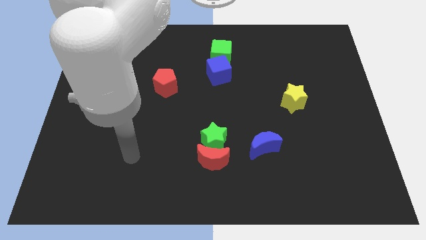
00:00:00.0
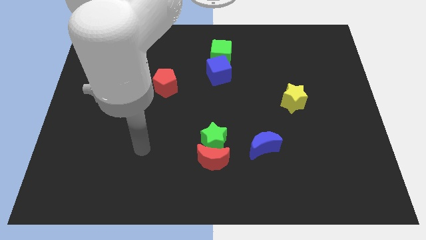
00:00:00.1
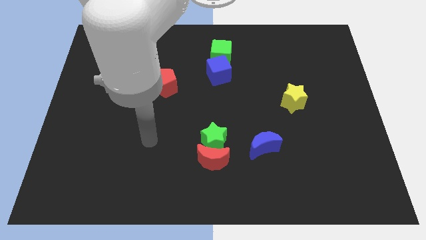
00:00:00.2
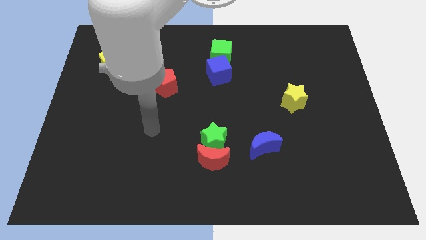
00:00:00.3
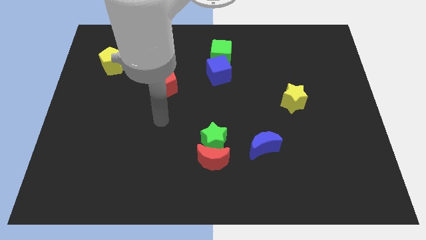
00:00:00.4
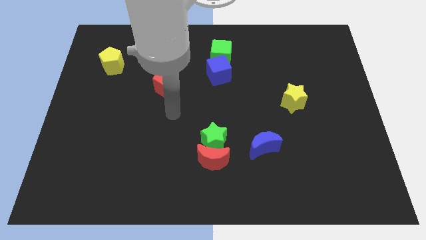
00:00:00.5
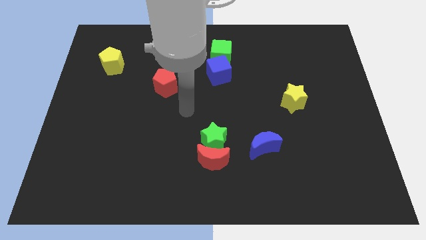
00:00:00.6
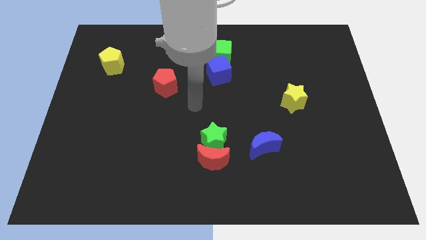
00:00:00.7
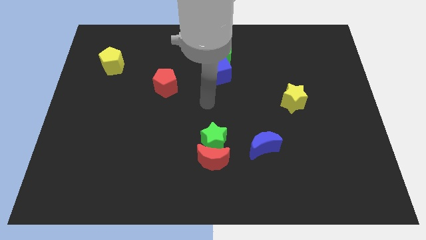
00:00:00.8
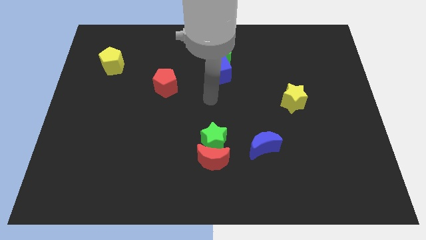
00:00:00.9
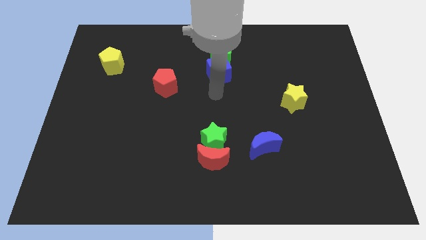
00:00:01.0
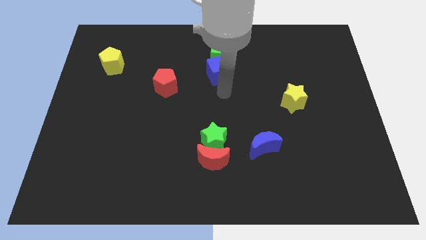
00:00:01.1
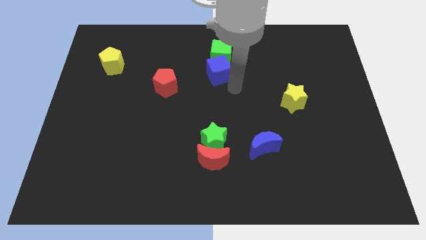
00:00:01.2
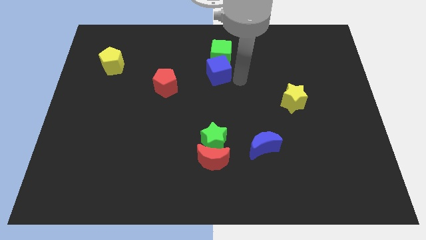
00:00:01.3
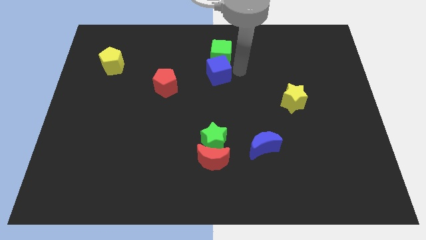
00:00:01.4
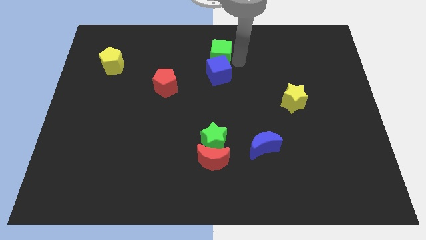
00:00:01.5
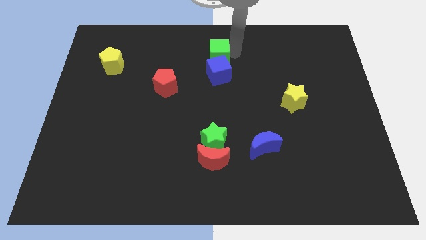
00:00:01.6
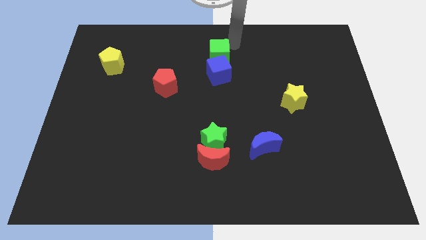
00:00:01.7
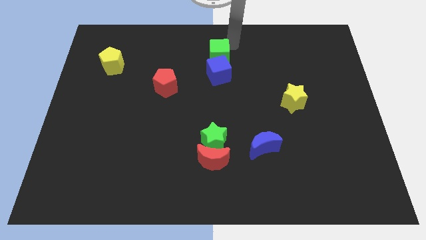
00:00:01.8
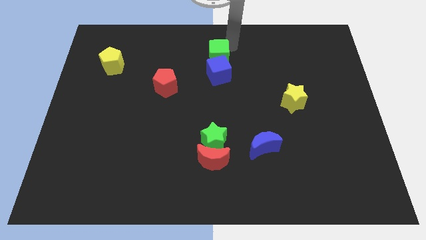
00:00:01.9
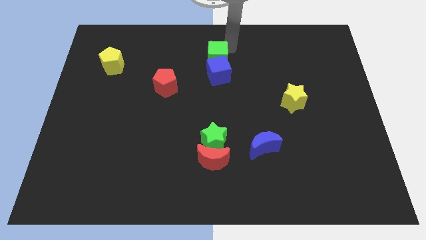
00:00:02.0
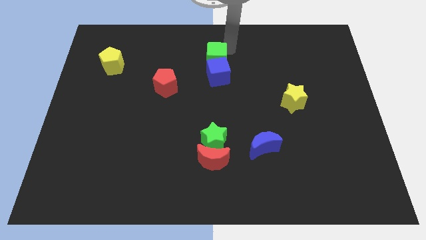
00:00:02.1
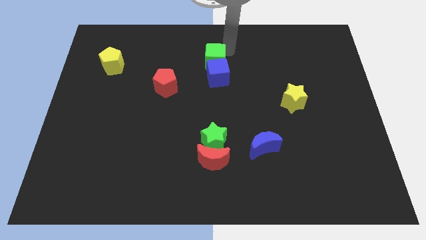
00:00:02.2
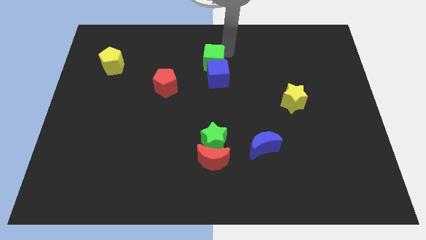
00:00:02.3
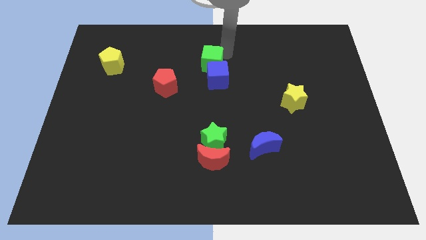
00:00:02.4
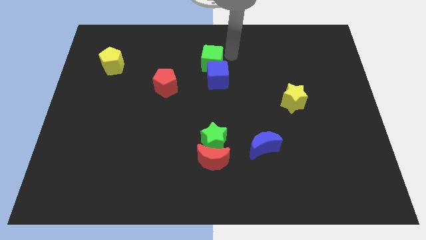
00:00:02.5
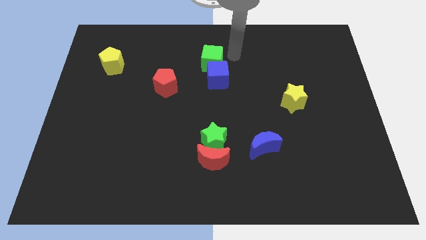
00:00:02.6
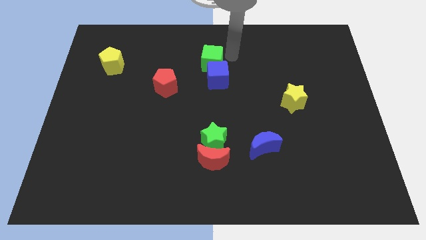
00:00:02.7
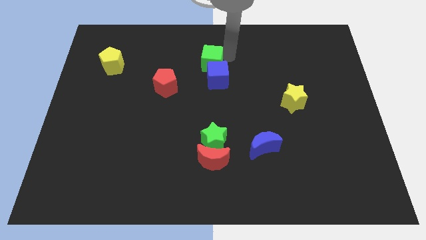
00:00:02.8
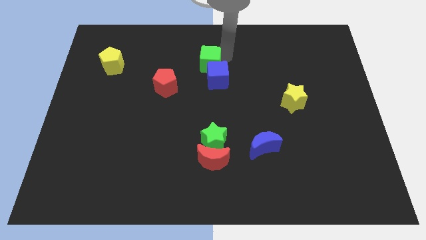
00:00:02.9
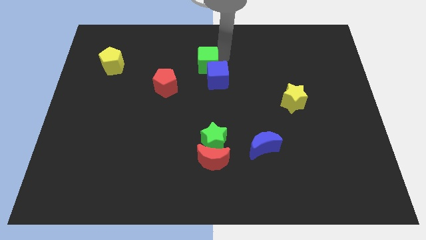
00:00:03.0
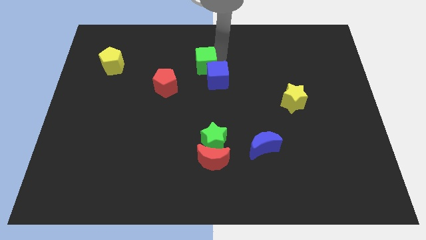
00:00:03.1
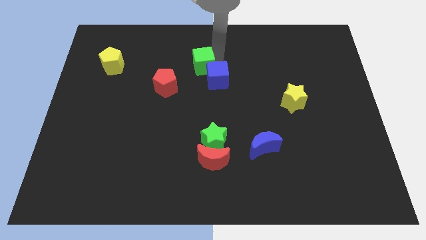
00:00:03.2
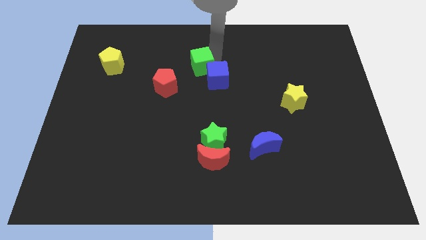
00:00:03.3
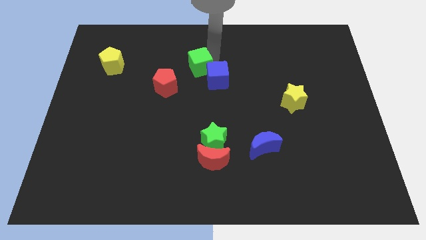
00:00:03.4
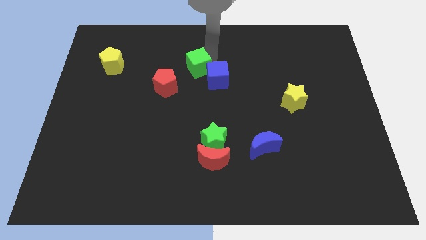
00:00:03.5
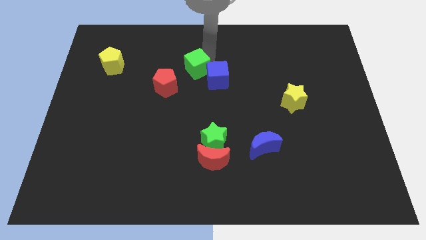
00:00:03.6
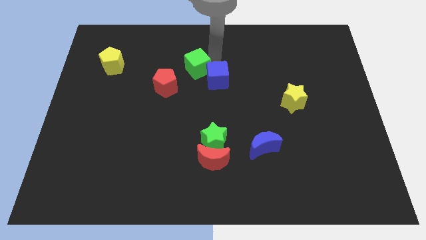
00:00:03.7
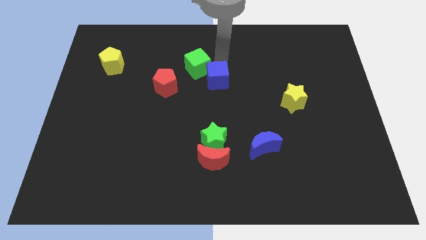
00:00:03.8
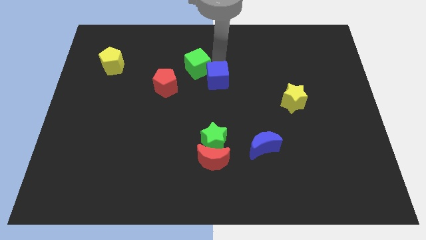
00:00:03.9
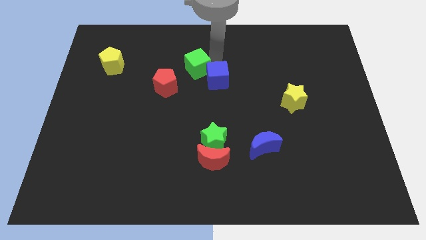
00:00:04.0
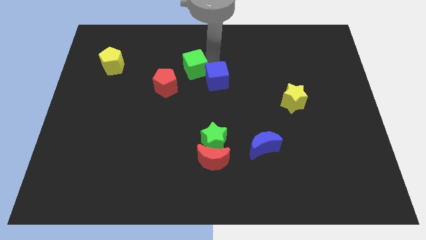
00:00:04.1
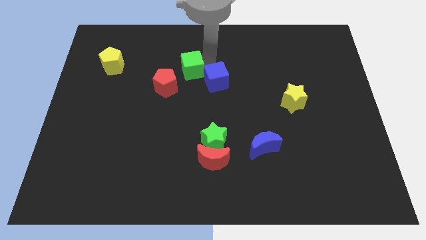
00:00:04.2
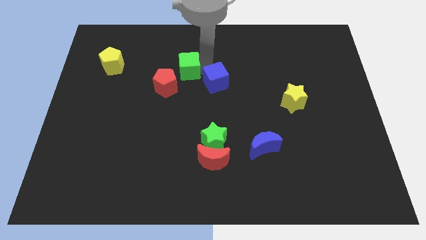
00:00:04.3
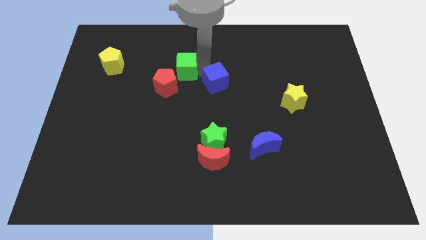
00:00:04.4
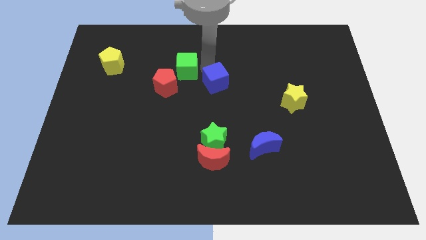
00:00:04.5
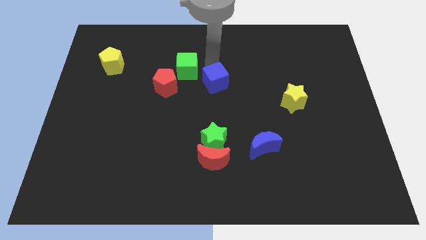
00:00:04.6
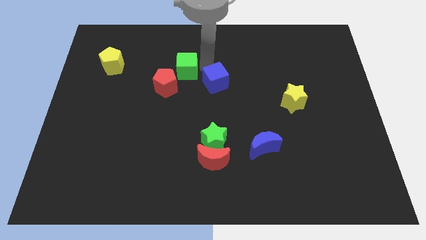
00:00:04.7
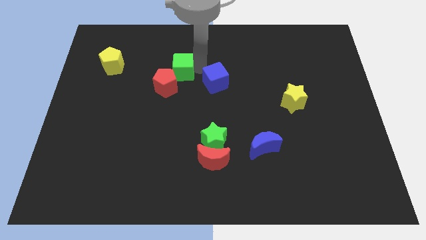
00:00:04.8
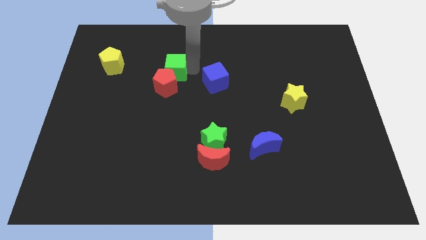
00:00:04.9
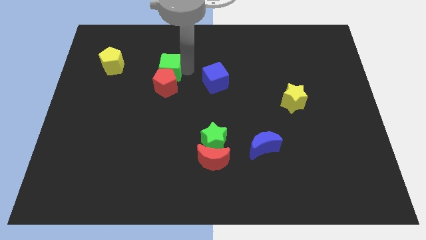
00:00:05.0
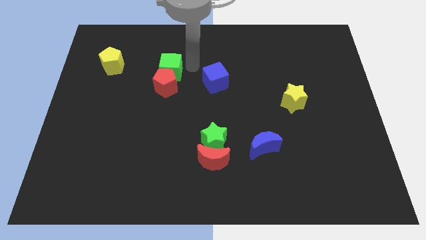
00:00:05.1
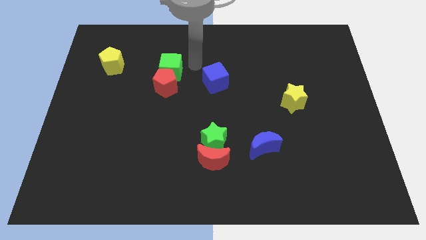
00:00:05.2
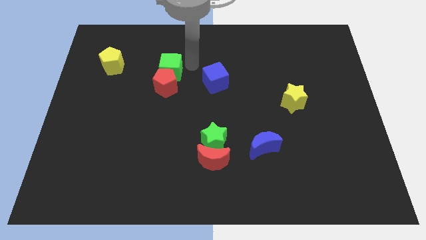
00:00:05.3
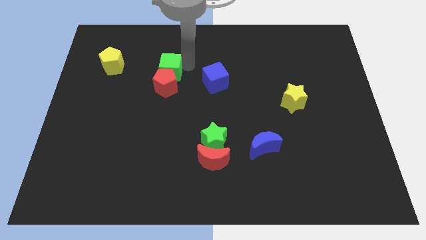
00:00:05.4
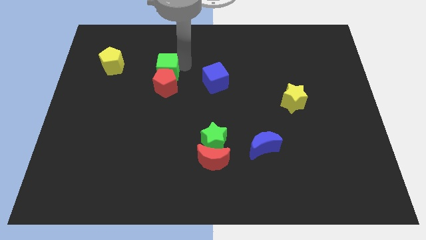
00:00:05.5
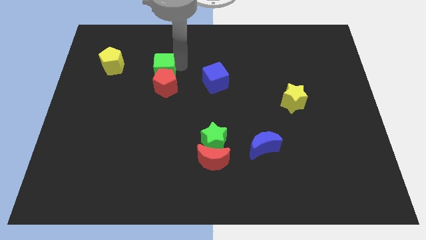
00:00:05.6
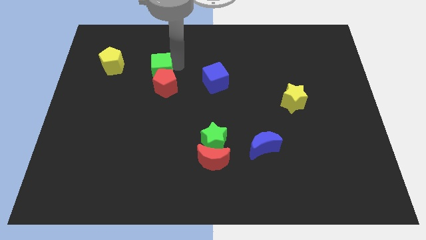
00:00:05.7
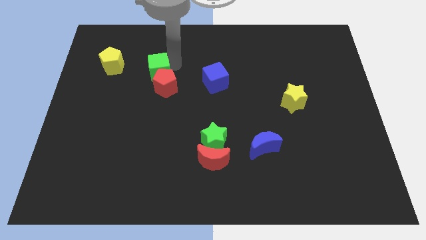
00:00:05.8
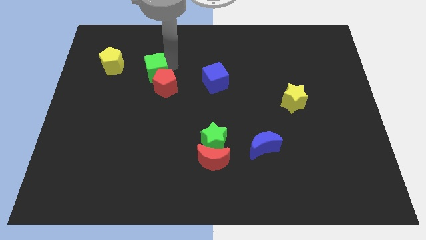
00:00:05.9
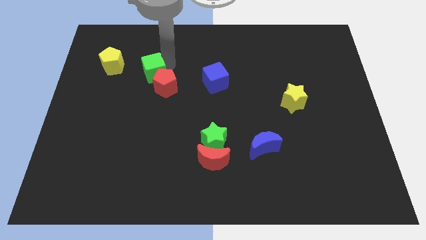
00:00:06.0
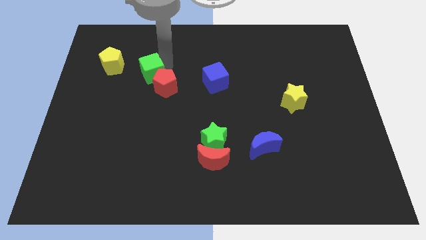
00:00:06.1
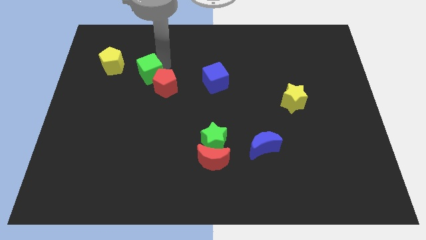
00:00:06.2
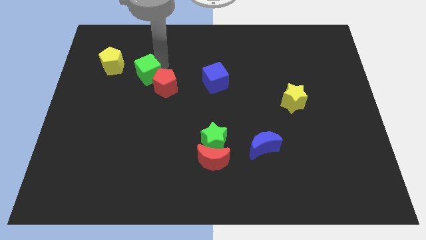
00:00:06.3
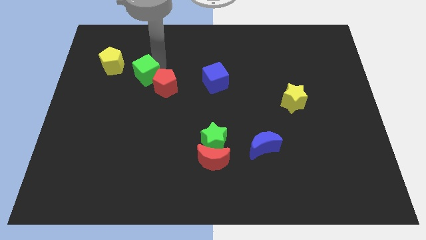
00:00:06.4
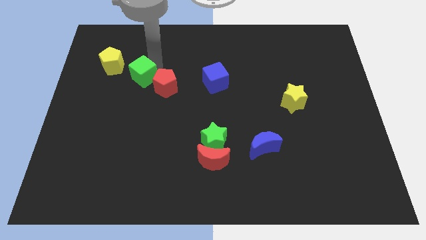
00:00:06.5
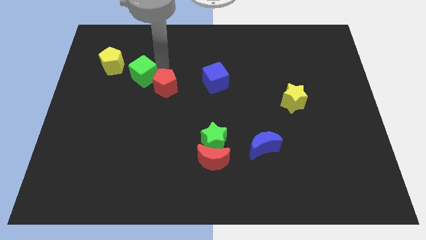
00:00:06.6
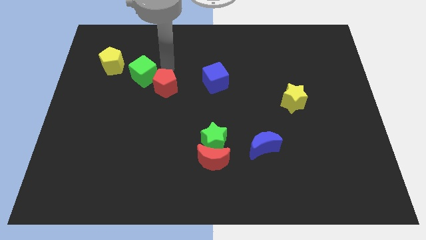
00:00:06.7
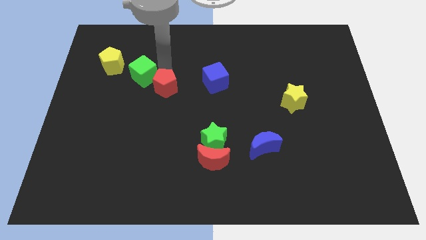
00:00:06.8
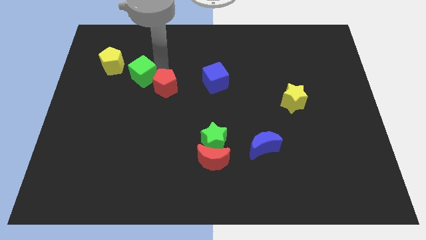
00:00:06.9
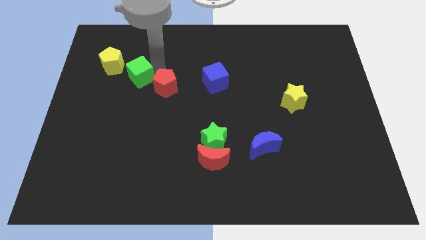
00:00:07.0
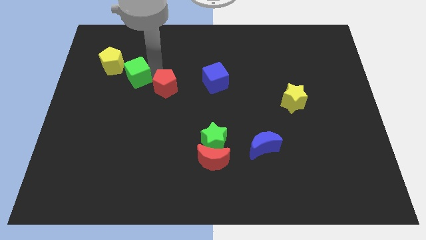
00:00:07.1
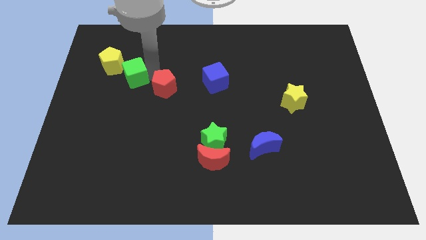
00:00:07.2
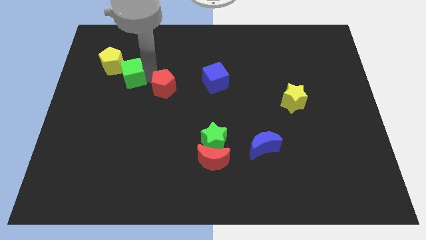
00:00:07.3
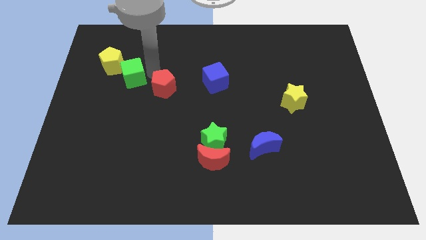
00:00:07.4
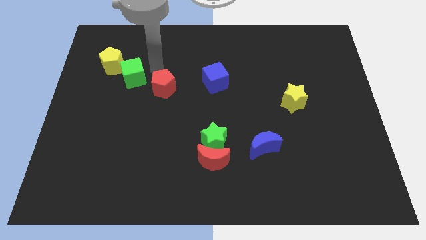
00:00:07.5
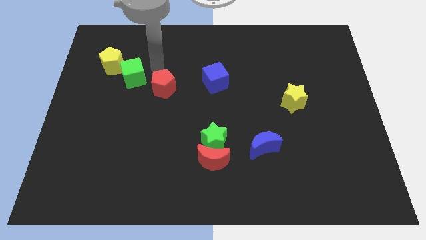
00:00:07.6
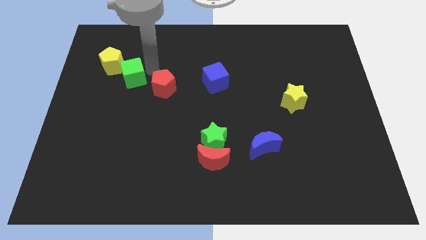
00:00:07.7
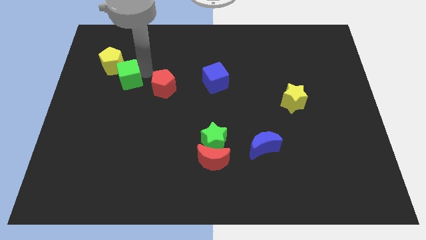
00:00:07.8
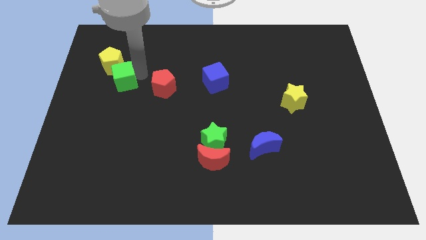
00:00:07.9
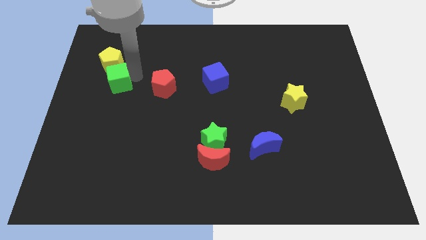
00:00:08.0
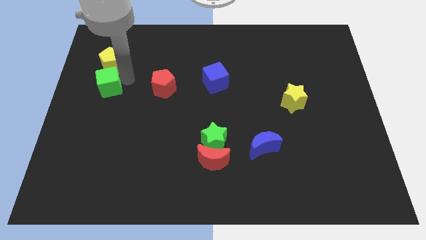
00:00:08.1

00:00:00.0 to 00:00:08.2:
move the green cube to the left side
